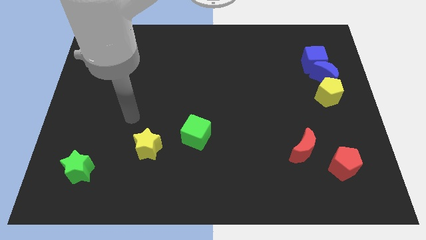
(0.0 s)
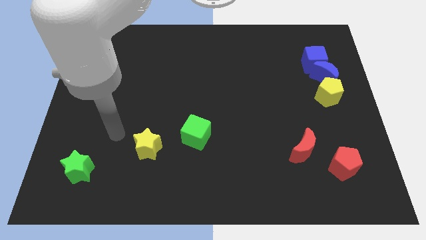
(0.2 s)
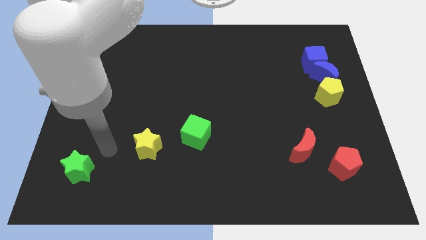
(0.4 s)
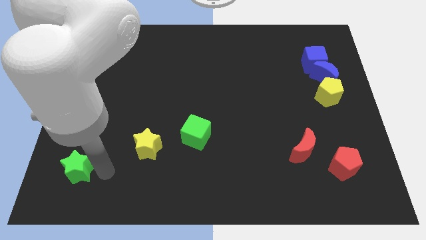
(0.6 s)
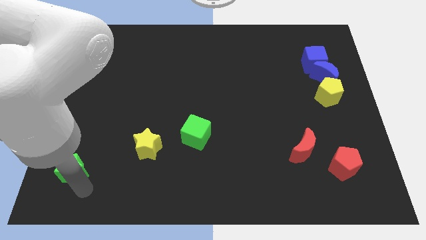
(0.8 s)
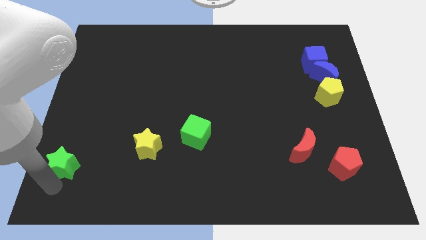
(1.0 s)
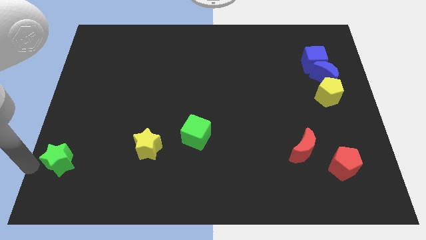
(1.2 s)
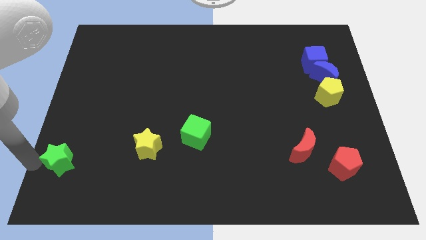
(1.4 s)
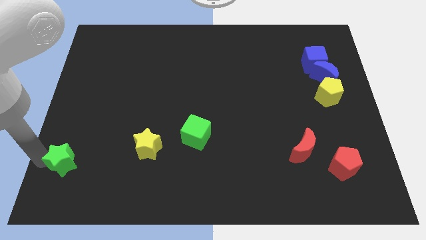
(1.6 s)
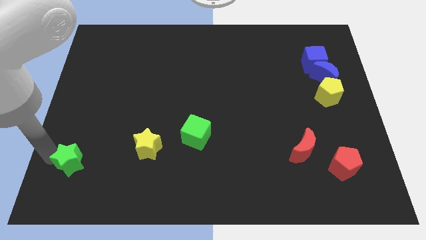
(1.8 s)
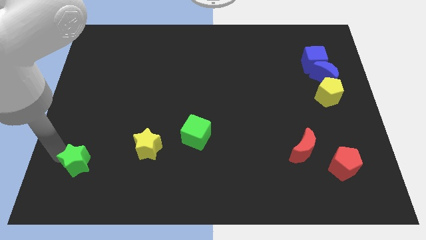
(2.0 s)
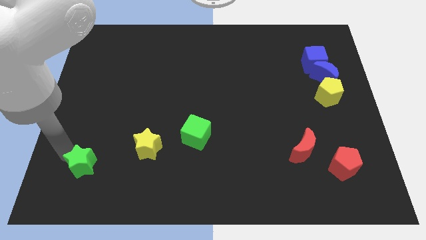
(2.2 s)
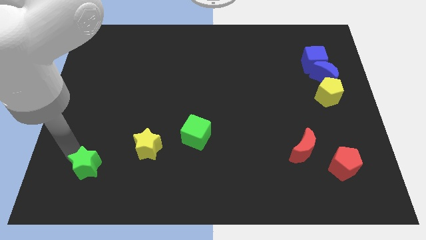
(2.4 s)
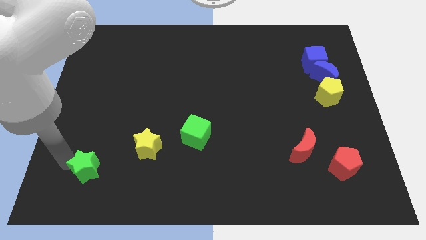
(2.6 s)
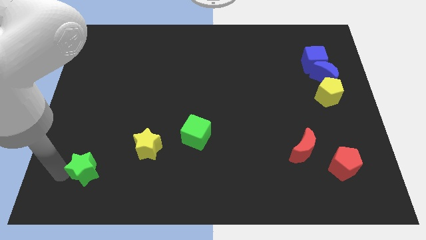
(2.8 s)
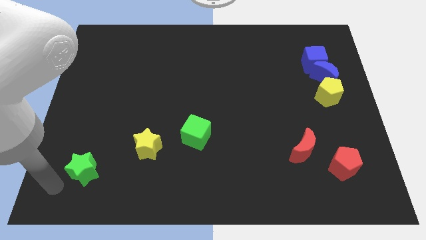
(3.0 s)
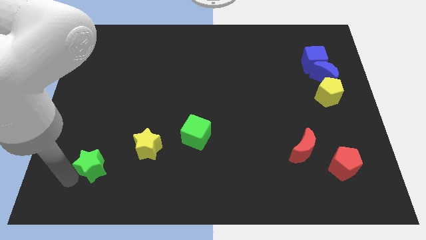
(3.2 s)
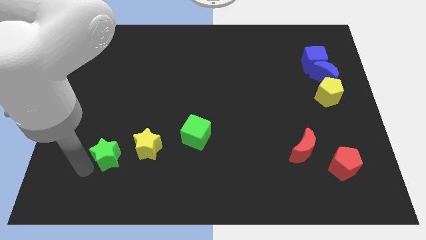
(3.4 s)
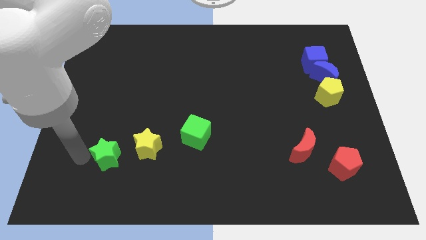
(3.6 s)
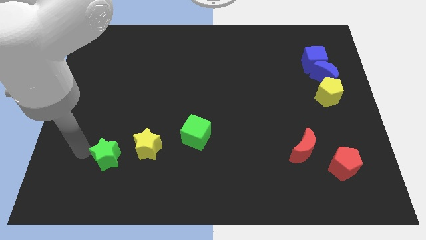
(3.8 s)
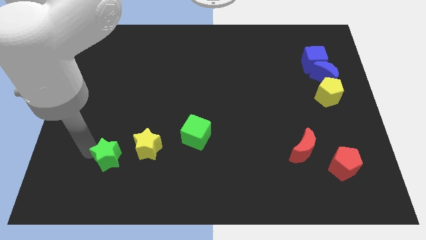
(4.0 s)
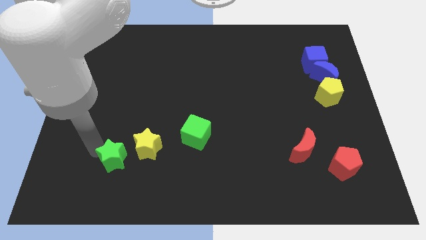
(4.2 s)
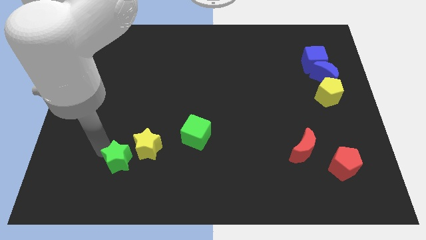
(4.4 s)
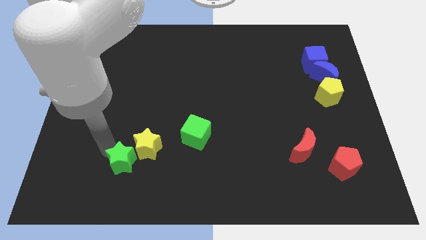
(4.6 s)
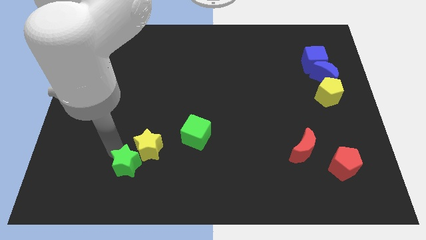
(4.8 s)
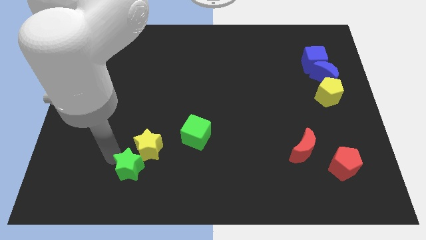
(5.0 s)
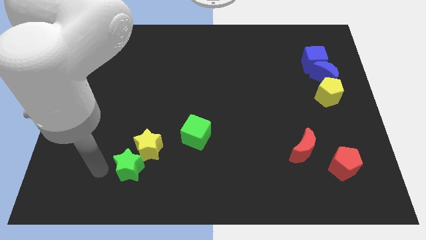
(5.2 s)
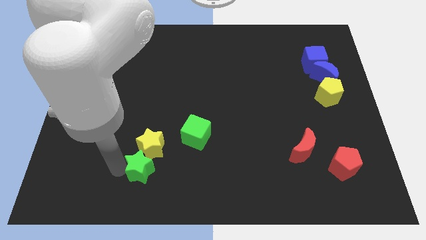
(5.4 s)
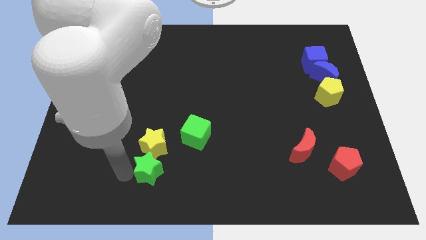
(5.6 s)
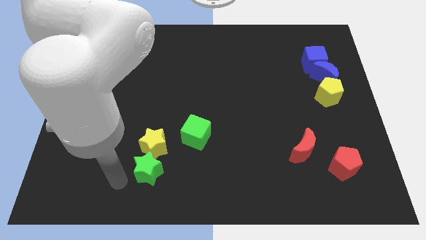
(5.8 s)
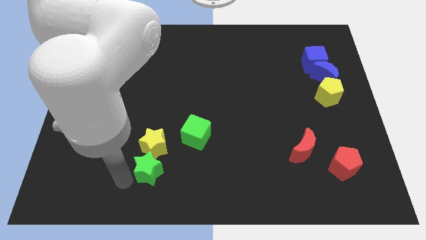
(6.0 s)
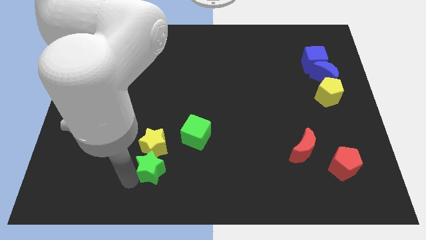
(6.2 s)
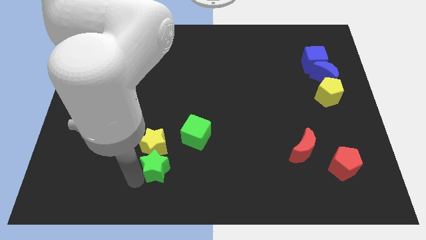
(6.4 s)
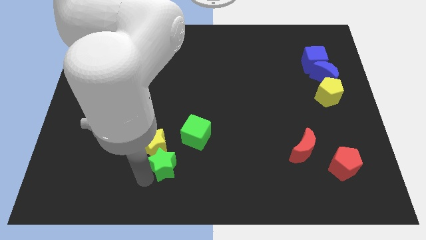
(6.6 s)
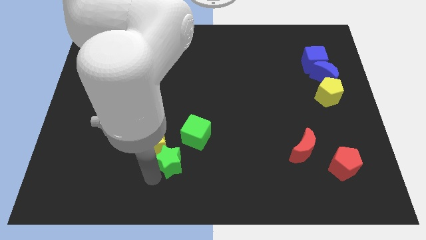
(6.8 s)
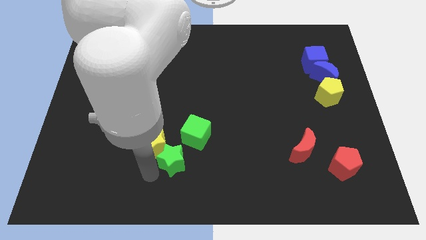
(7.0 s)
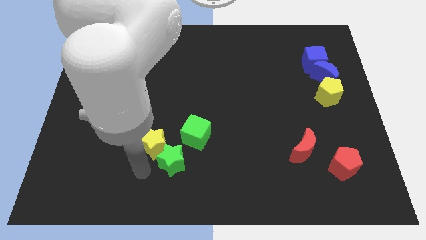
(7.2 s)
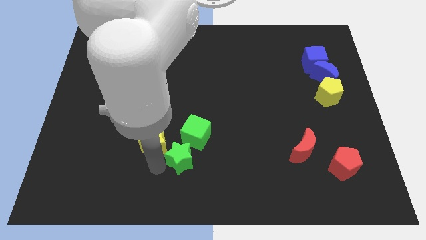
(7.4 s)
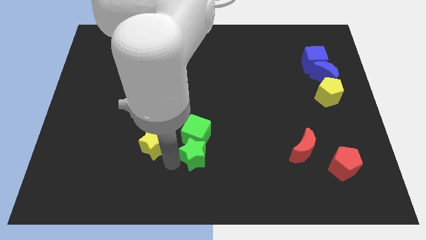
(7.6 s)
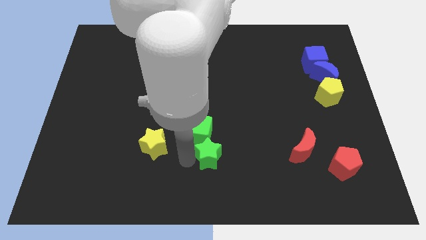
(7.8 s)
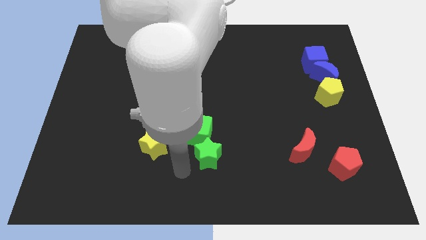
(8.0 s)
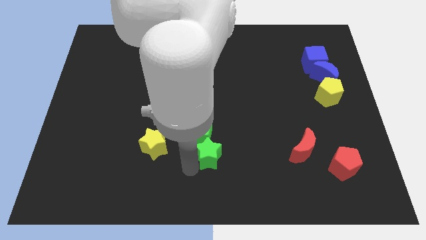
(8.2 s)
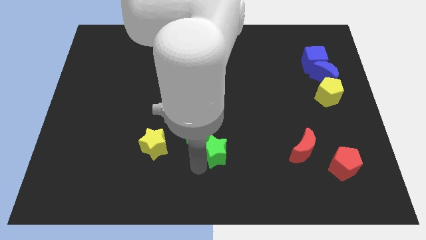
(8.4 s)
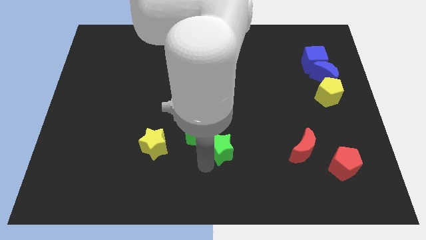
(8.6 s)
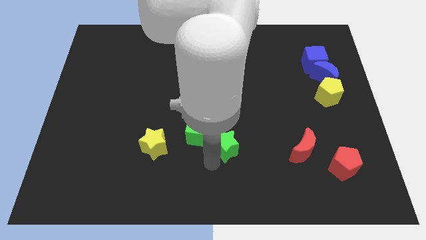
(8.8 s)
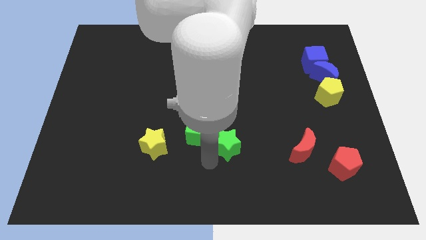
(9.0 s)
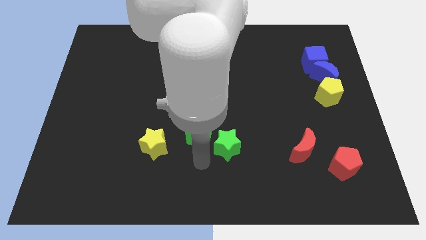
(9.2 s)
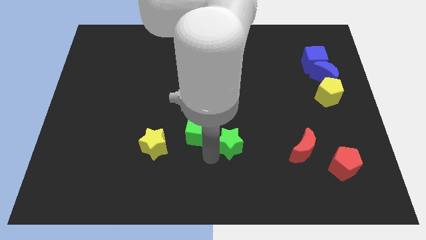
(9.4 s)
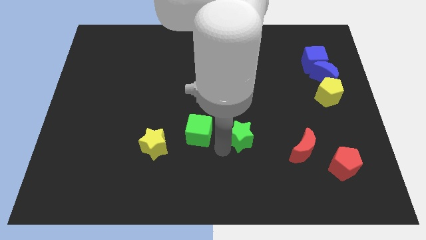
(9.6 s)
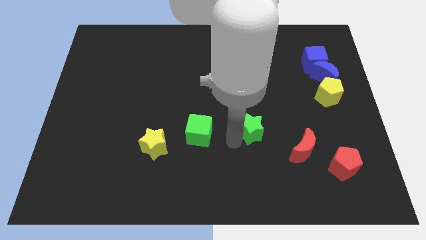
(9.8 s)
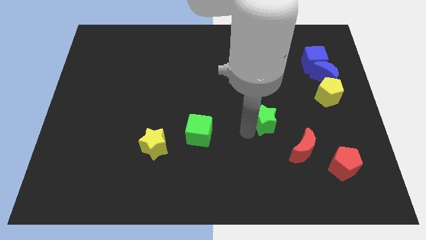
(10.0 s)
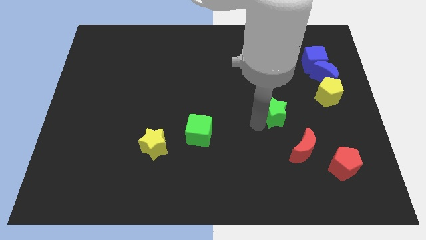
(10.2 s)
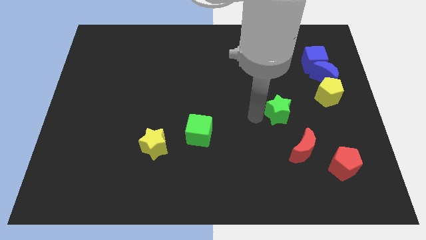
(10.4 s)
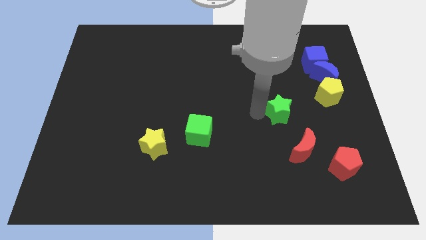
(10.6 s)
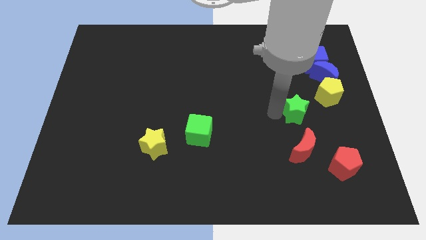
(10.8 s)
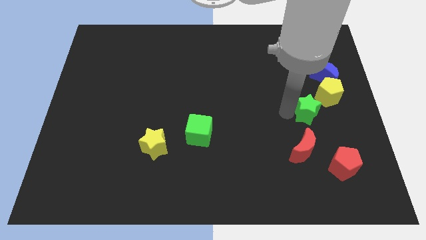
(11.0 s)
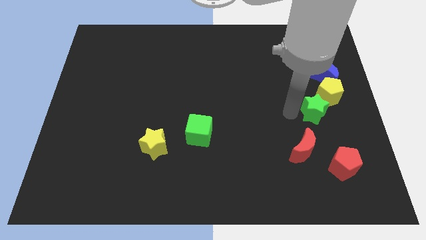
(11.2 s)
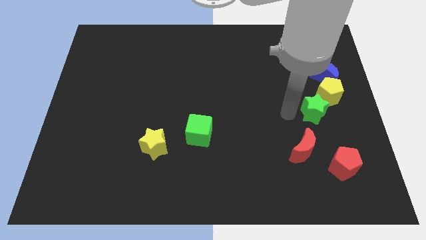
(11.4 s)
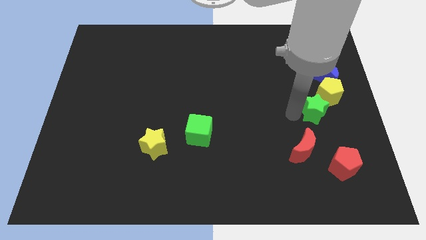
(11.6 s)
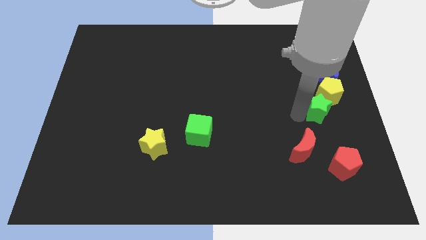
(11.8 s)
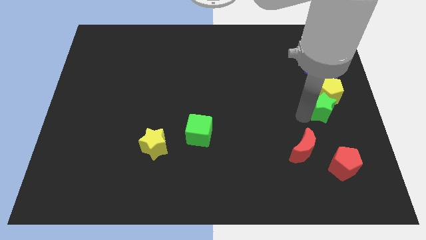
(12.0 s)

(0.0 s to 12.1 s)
move the green star to the center right
